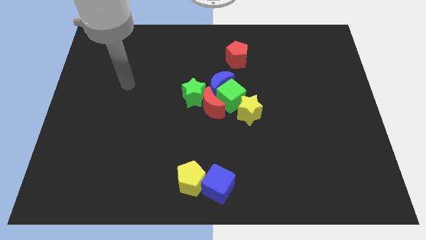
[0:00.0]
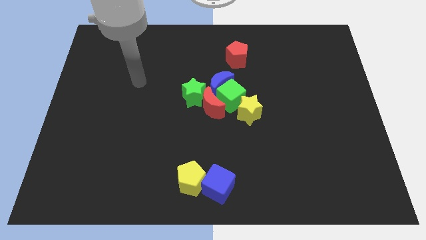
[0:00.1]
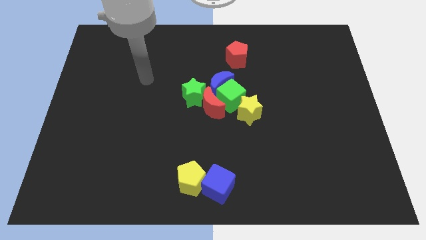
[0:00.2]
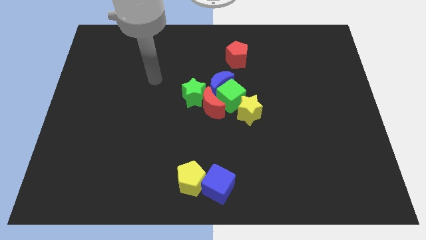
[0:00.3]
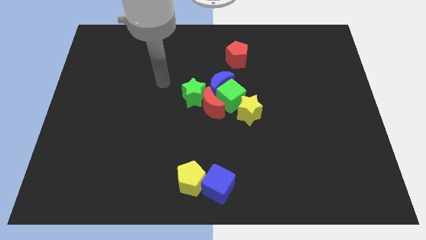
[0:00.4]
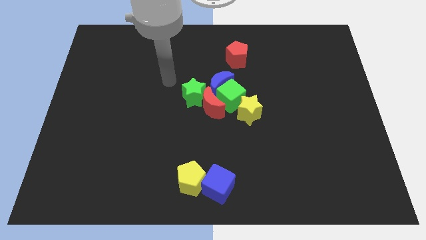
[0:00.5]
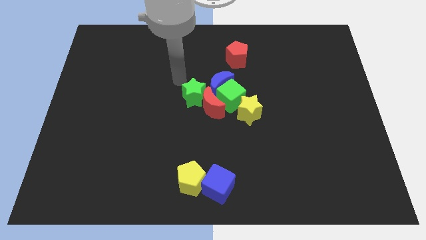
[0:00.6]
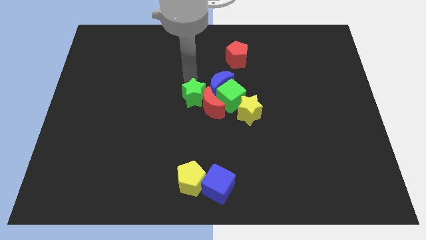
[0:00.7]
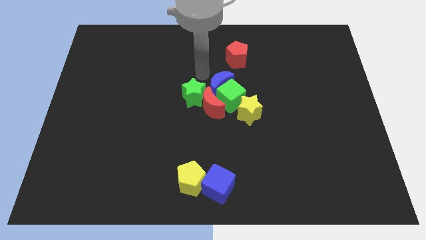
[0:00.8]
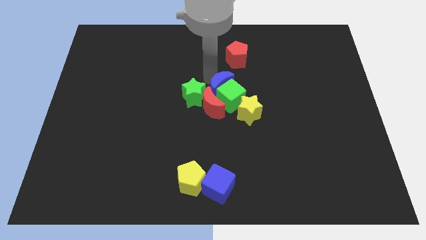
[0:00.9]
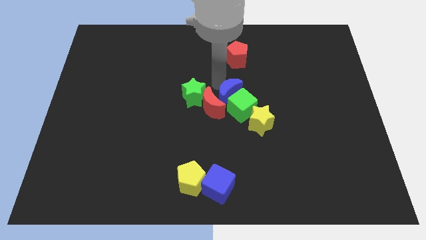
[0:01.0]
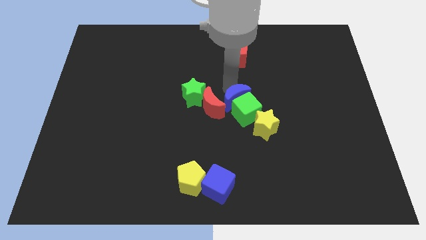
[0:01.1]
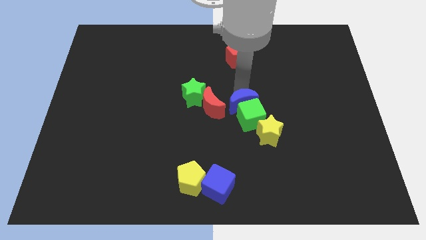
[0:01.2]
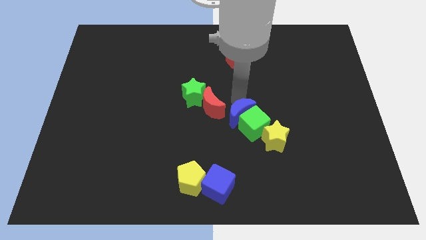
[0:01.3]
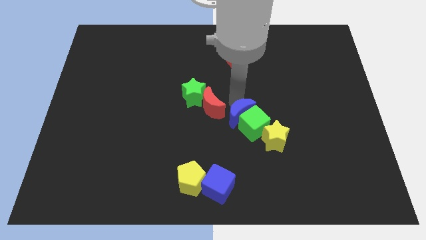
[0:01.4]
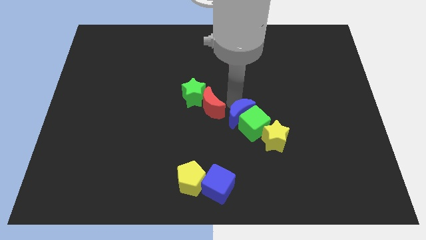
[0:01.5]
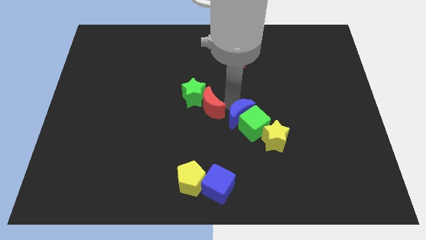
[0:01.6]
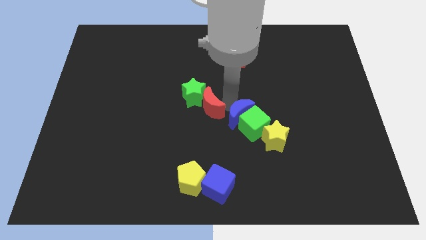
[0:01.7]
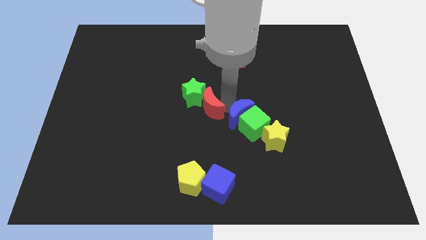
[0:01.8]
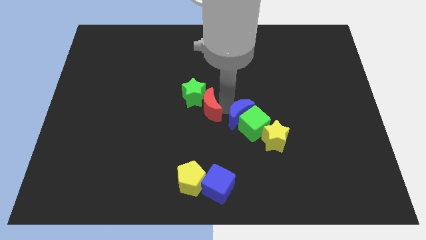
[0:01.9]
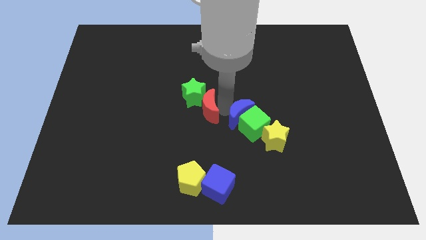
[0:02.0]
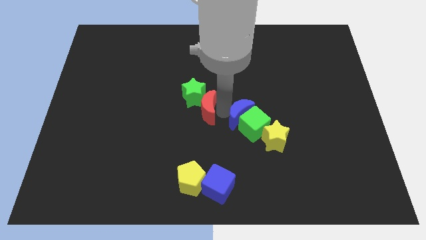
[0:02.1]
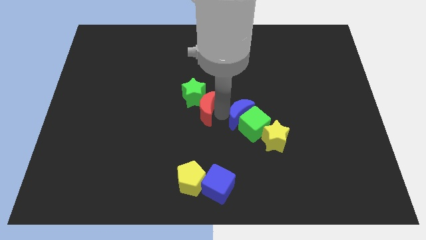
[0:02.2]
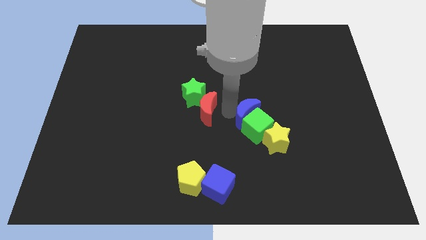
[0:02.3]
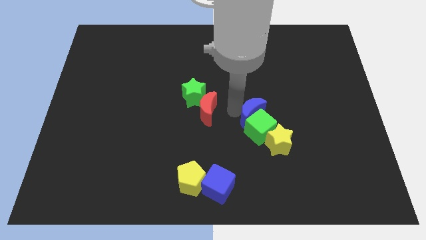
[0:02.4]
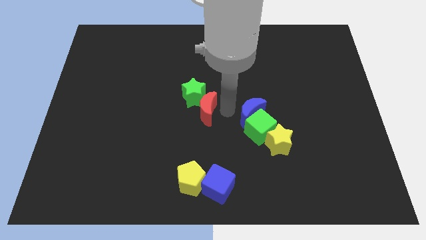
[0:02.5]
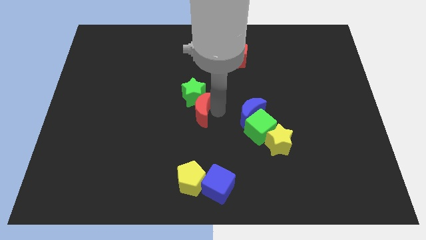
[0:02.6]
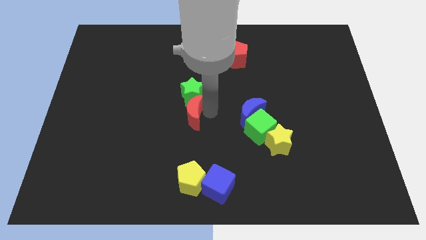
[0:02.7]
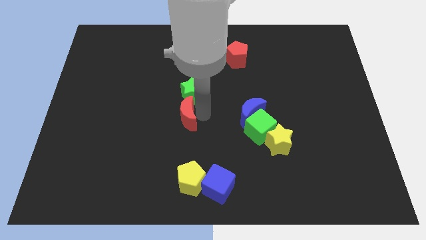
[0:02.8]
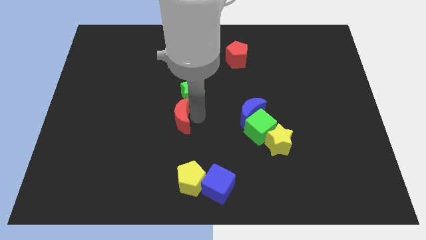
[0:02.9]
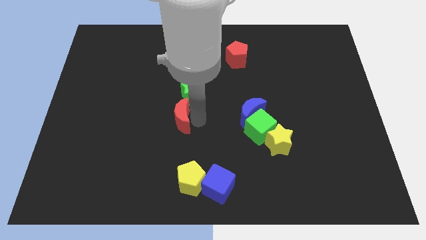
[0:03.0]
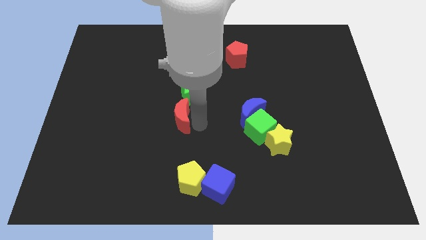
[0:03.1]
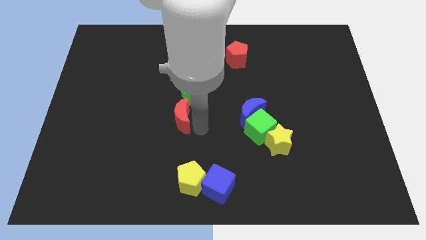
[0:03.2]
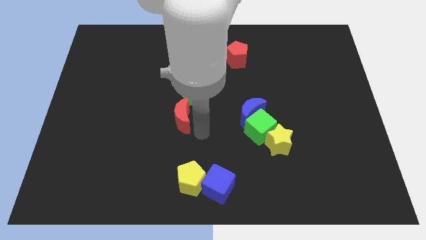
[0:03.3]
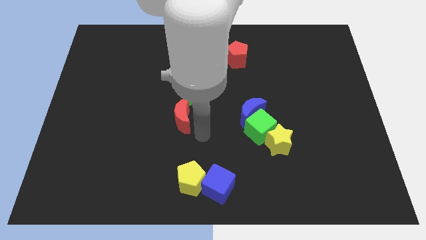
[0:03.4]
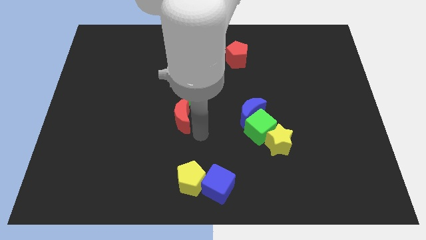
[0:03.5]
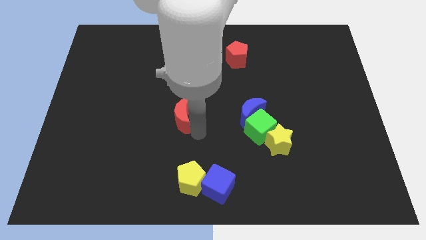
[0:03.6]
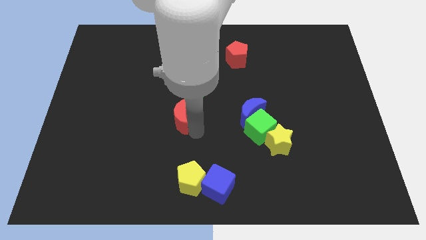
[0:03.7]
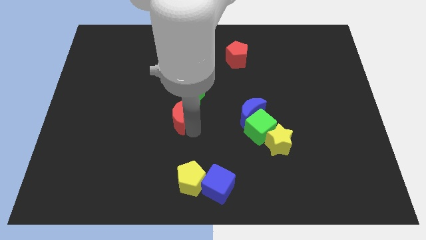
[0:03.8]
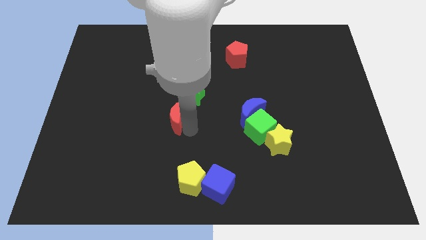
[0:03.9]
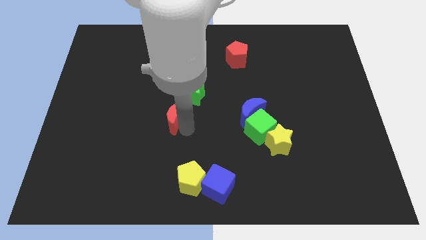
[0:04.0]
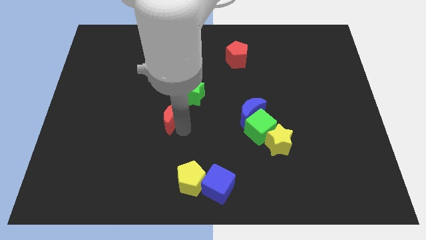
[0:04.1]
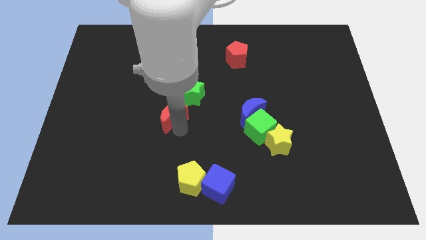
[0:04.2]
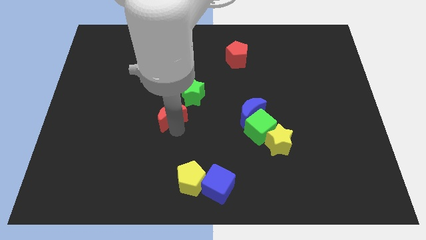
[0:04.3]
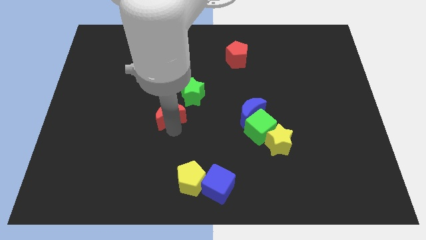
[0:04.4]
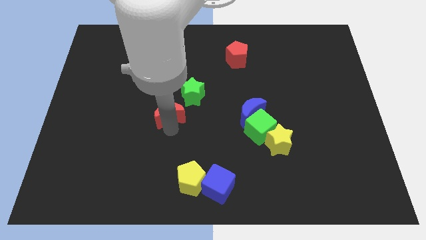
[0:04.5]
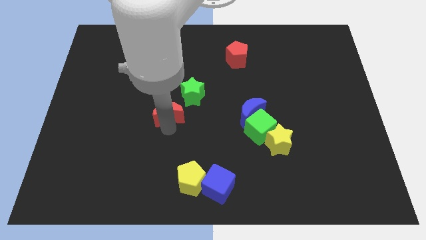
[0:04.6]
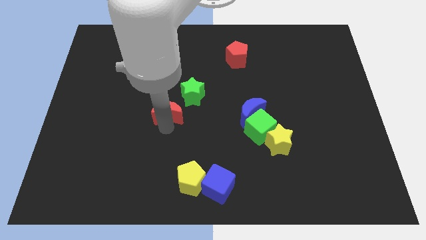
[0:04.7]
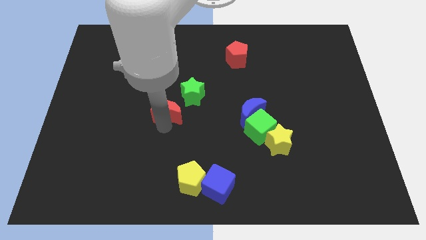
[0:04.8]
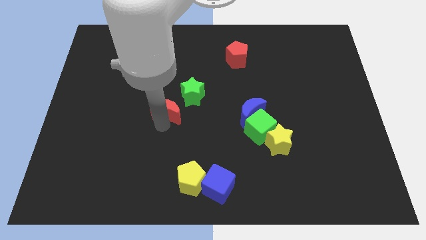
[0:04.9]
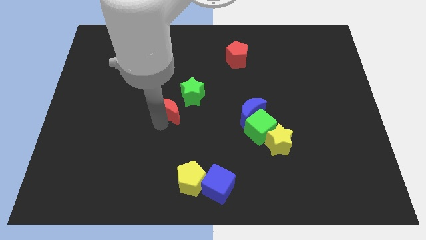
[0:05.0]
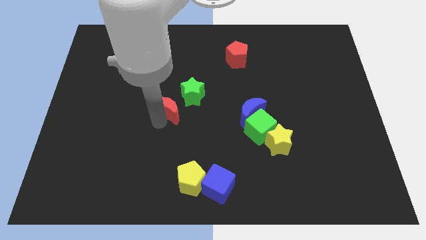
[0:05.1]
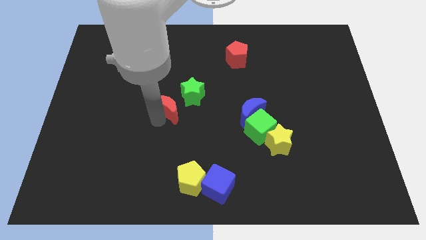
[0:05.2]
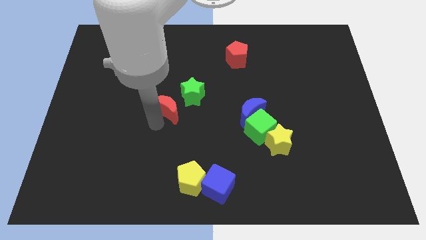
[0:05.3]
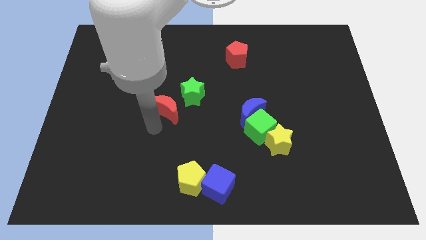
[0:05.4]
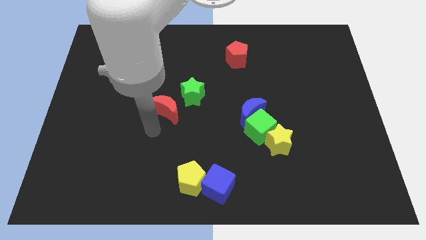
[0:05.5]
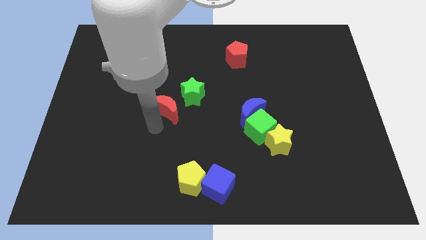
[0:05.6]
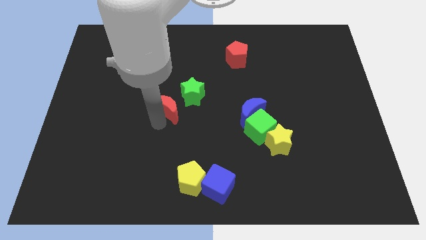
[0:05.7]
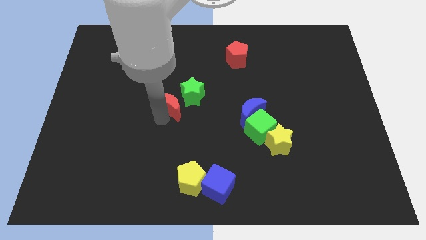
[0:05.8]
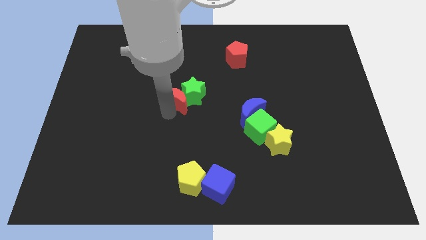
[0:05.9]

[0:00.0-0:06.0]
move the red moon to the top left side of the green star

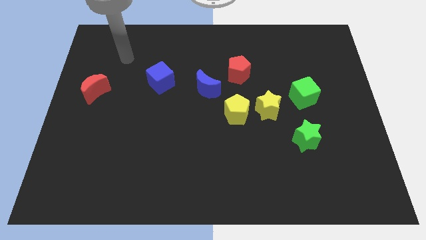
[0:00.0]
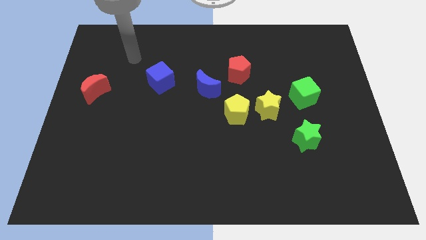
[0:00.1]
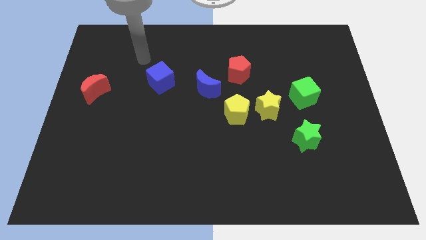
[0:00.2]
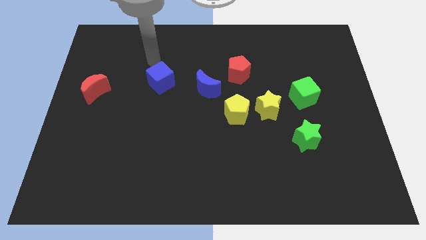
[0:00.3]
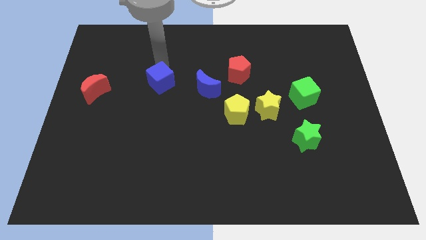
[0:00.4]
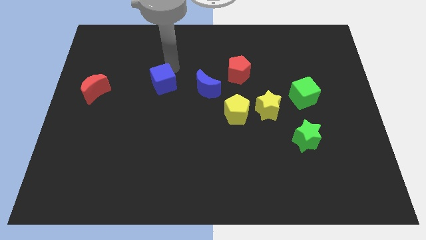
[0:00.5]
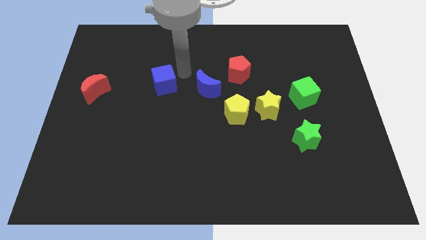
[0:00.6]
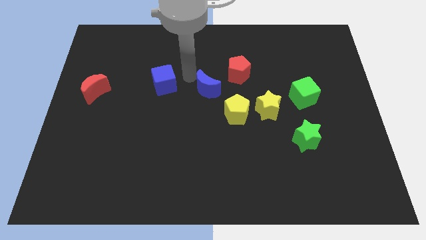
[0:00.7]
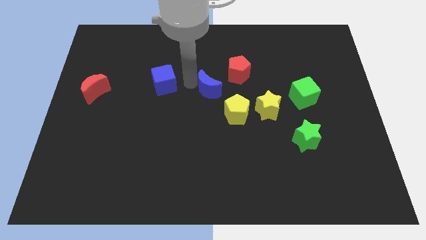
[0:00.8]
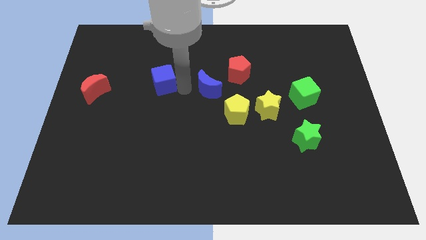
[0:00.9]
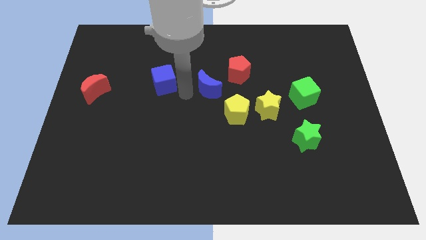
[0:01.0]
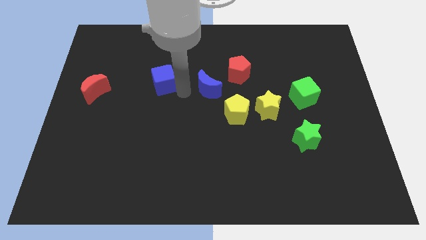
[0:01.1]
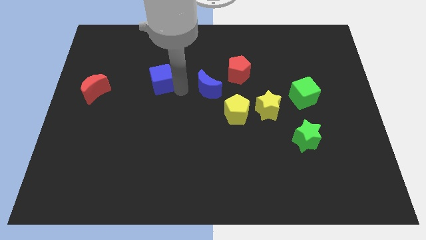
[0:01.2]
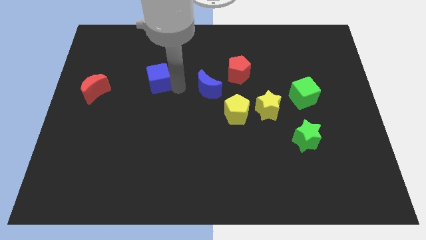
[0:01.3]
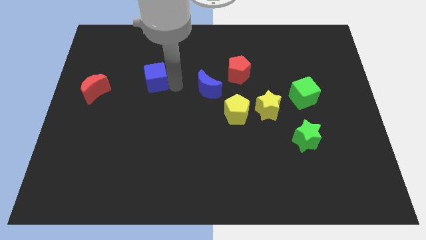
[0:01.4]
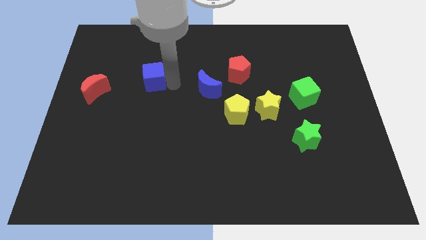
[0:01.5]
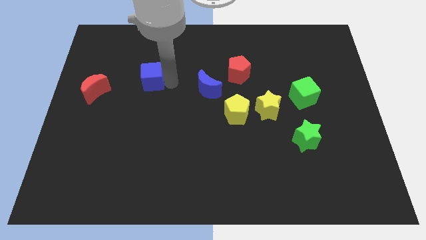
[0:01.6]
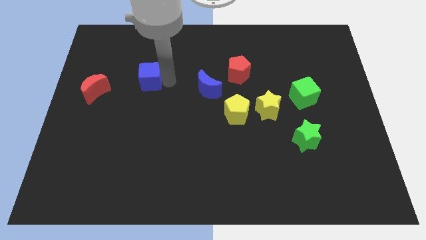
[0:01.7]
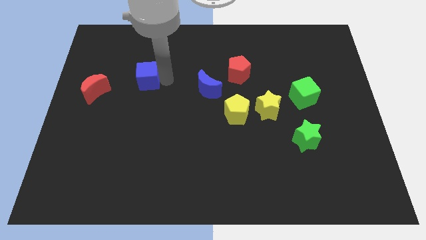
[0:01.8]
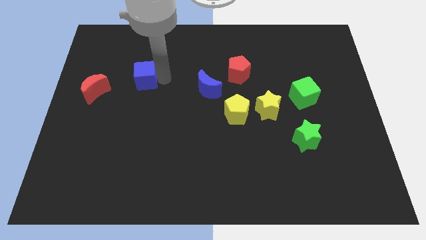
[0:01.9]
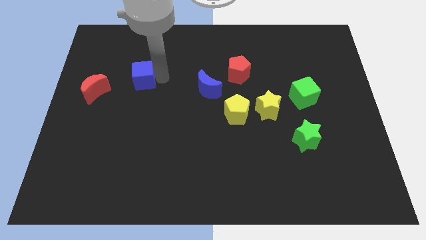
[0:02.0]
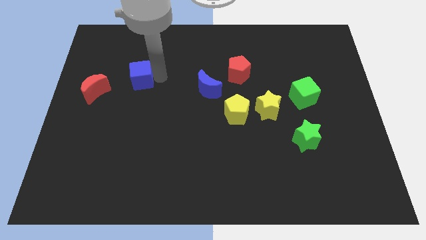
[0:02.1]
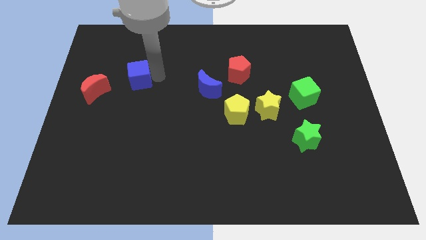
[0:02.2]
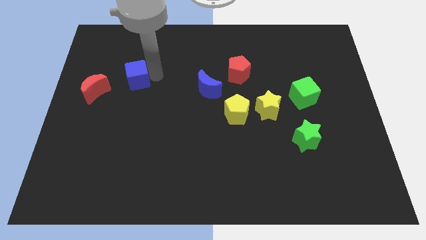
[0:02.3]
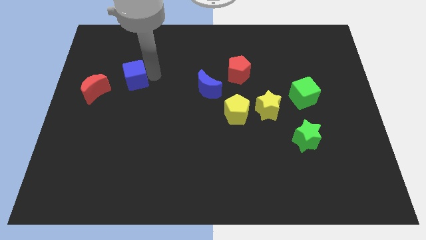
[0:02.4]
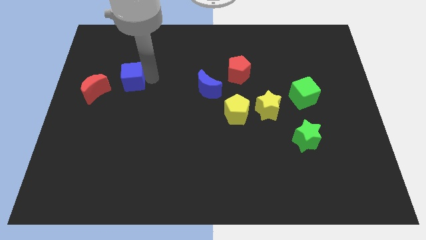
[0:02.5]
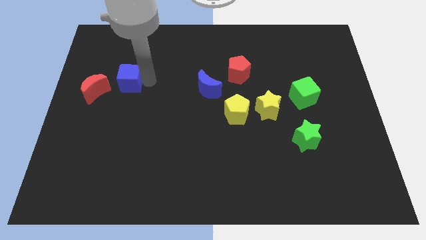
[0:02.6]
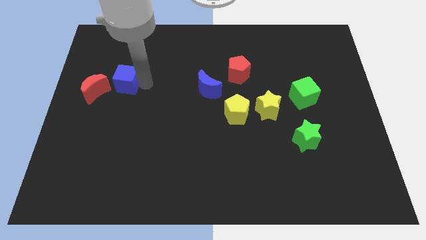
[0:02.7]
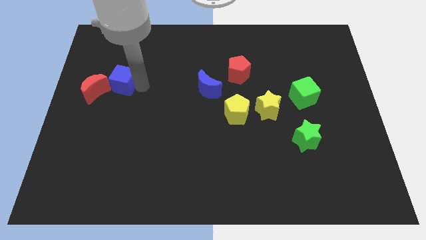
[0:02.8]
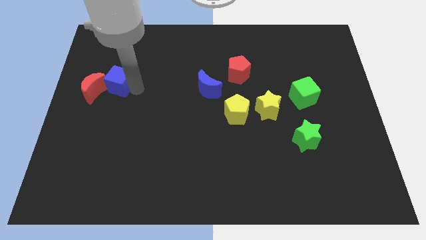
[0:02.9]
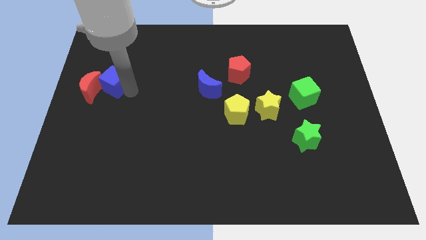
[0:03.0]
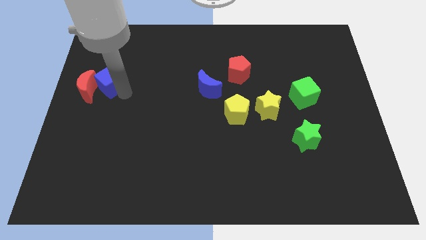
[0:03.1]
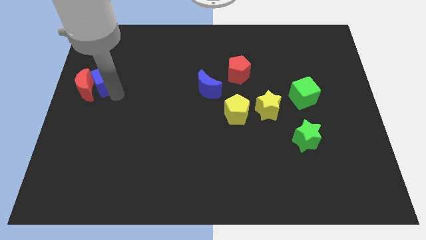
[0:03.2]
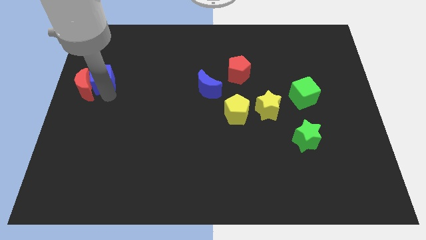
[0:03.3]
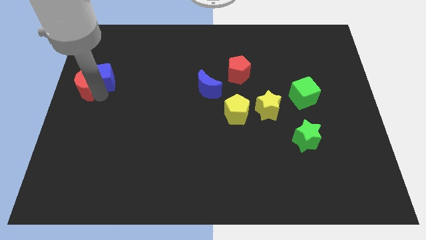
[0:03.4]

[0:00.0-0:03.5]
move the blue cube to the top of the red moon
